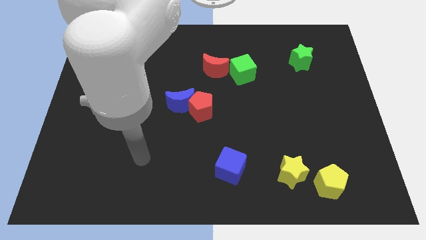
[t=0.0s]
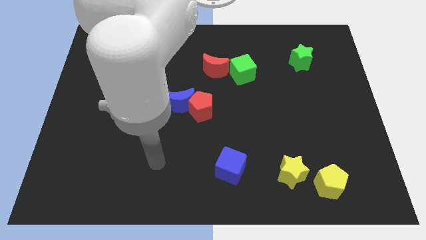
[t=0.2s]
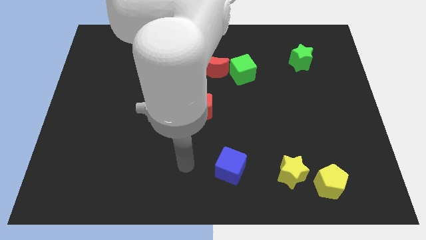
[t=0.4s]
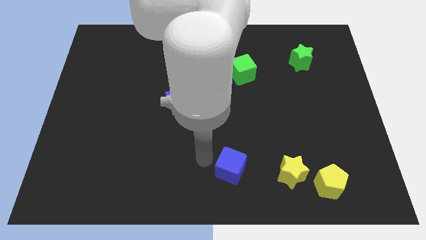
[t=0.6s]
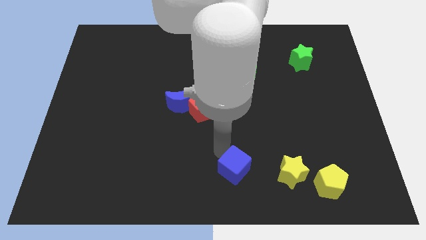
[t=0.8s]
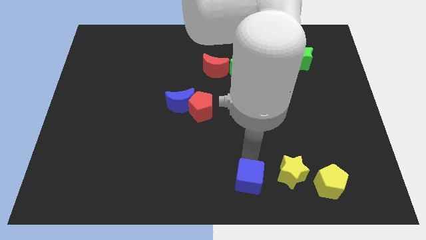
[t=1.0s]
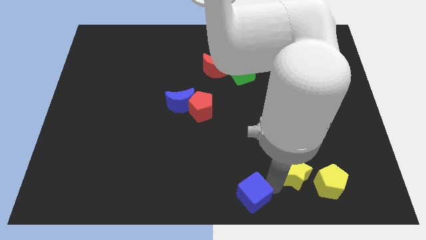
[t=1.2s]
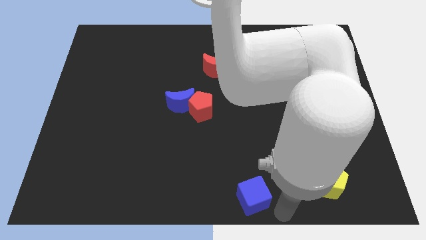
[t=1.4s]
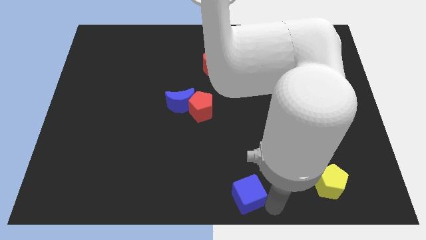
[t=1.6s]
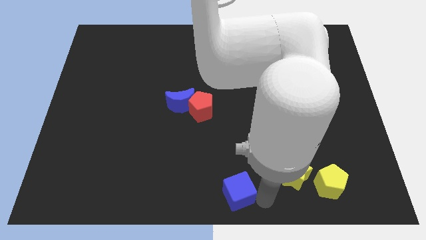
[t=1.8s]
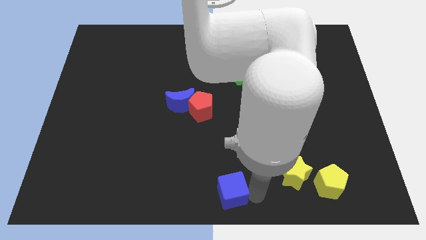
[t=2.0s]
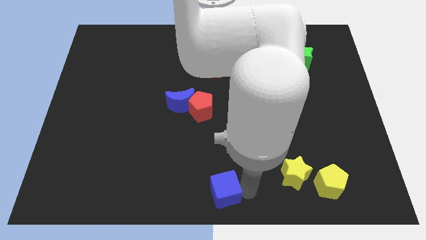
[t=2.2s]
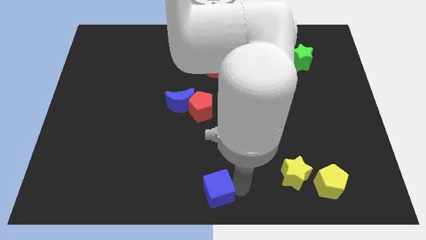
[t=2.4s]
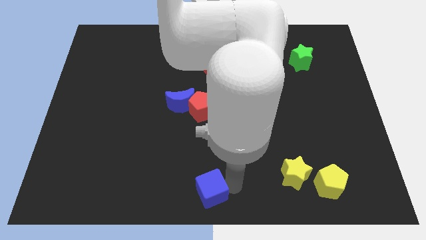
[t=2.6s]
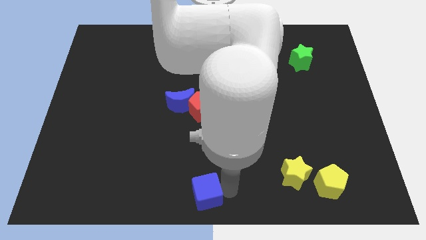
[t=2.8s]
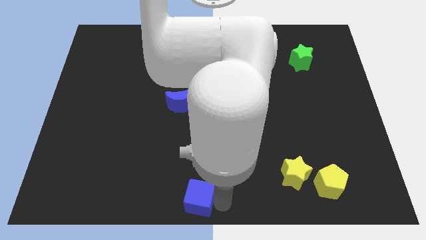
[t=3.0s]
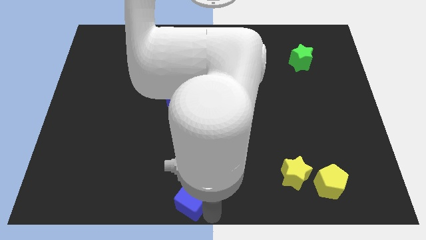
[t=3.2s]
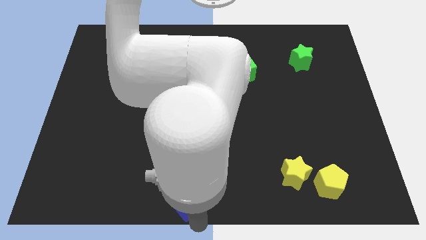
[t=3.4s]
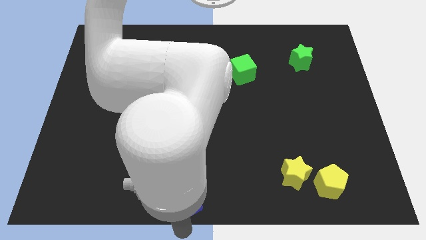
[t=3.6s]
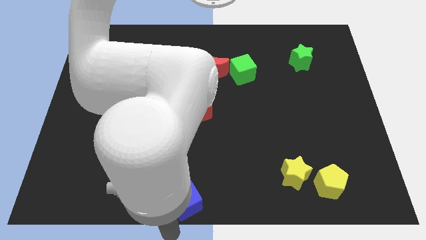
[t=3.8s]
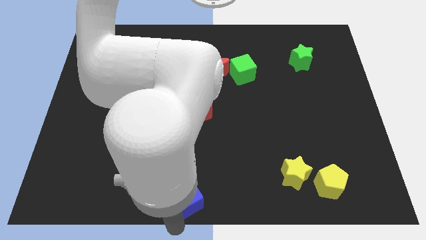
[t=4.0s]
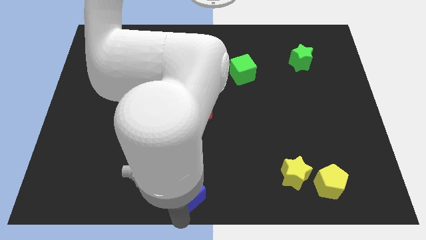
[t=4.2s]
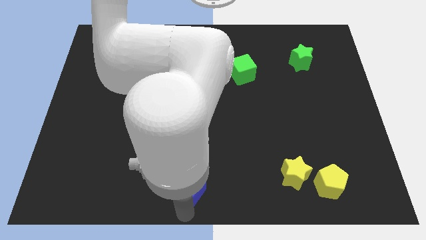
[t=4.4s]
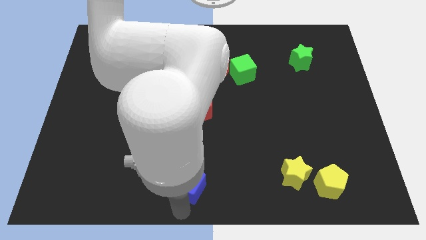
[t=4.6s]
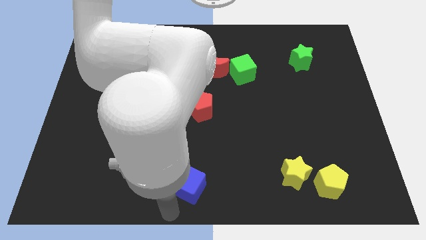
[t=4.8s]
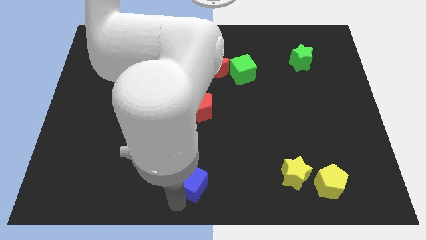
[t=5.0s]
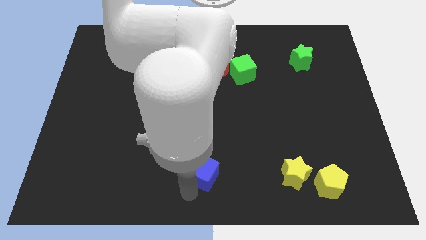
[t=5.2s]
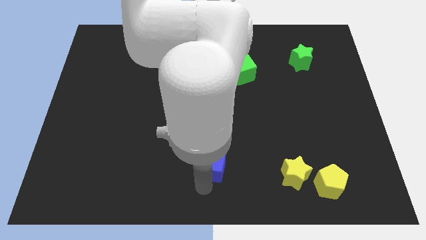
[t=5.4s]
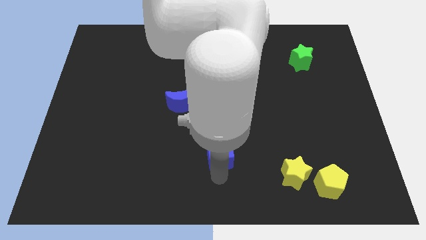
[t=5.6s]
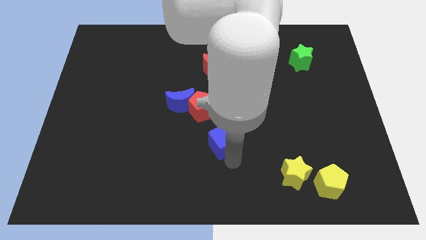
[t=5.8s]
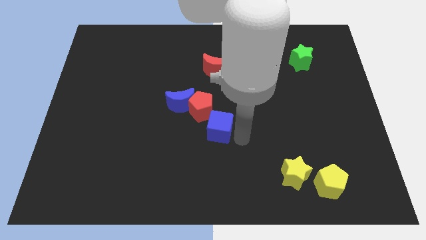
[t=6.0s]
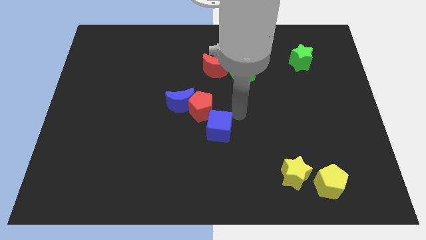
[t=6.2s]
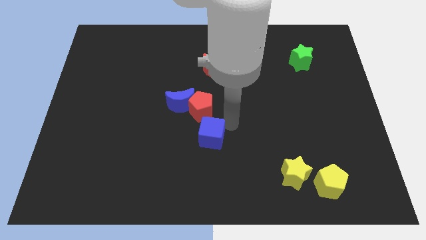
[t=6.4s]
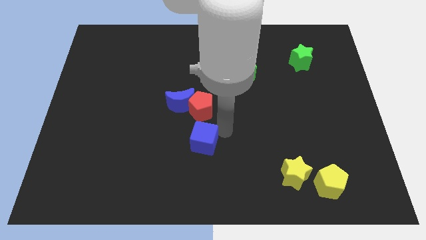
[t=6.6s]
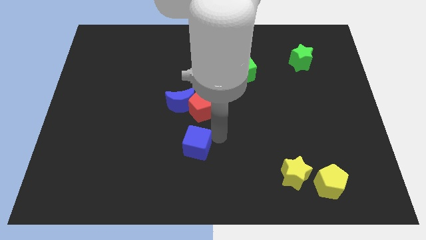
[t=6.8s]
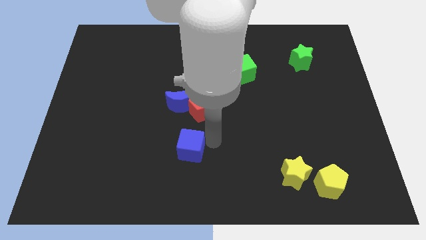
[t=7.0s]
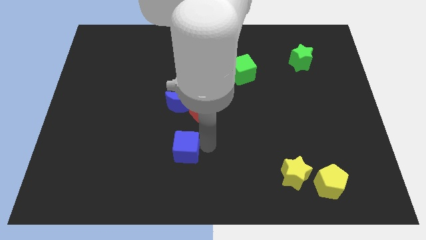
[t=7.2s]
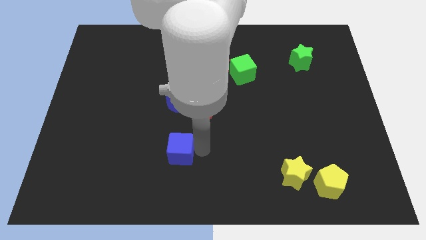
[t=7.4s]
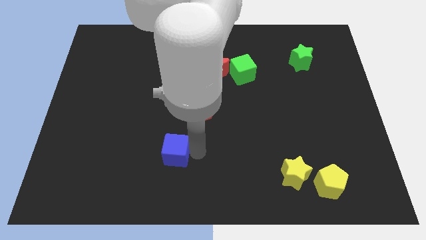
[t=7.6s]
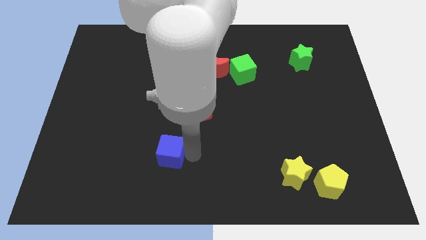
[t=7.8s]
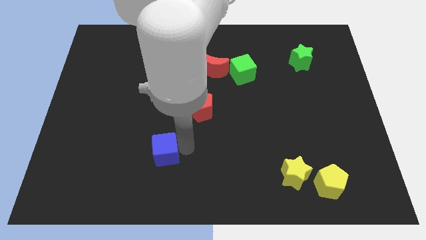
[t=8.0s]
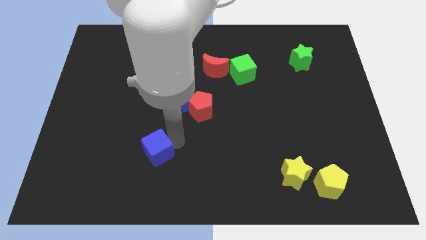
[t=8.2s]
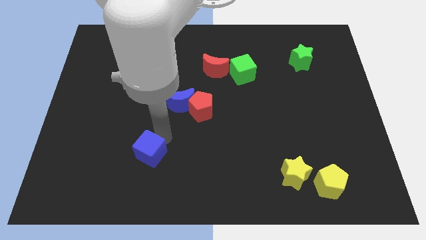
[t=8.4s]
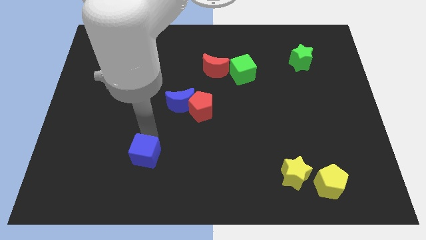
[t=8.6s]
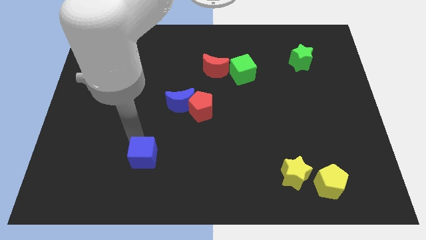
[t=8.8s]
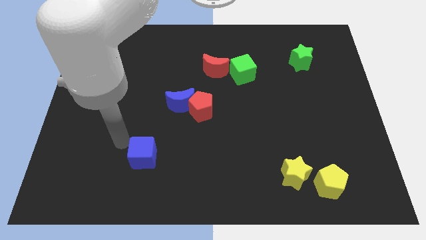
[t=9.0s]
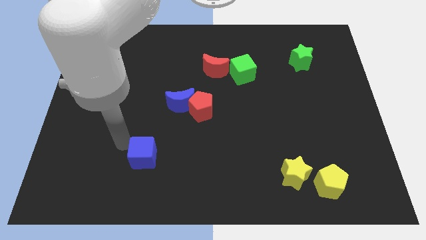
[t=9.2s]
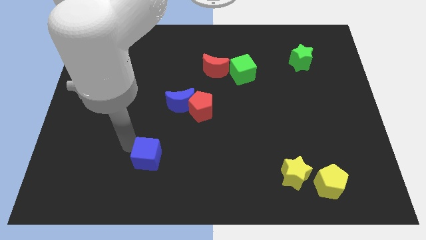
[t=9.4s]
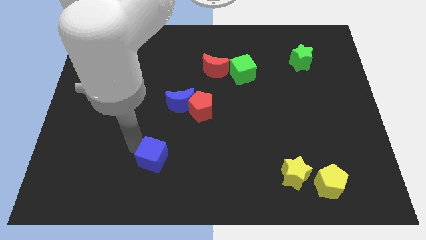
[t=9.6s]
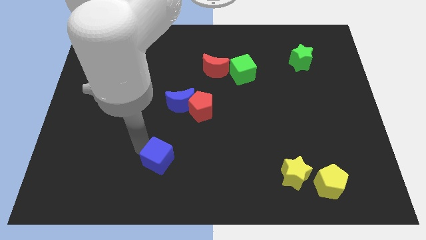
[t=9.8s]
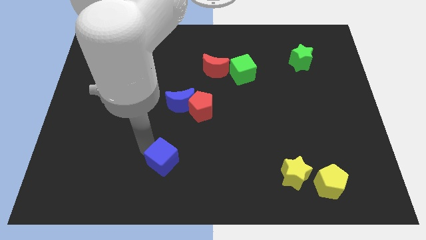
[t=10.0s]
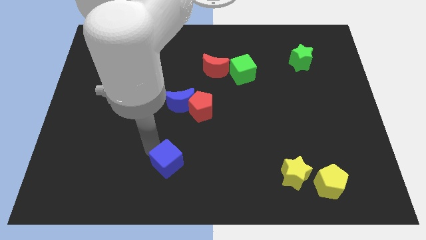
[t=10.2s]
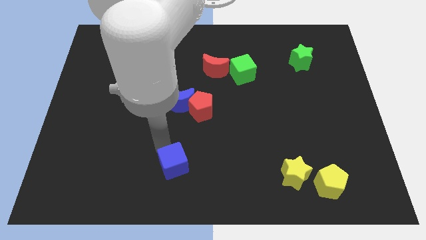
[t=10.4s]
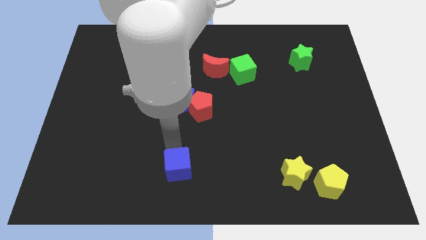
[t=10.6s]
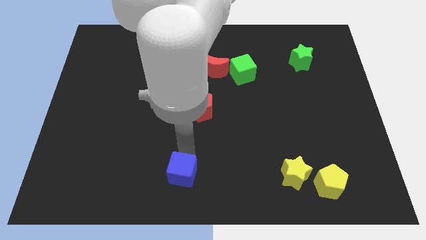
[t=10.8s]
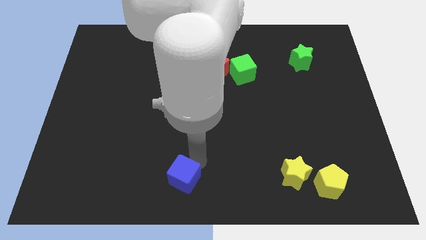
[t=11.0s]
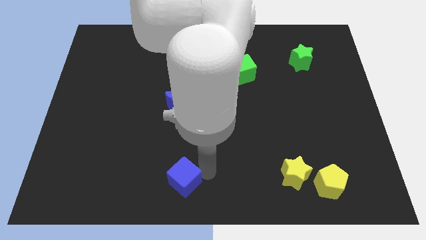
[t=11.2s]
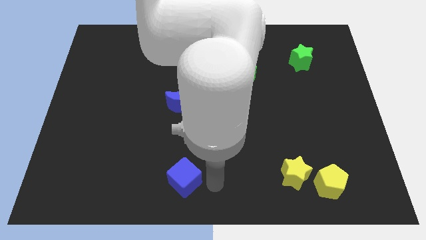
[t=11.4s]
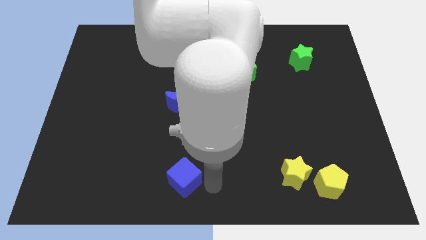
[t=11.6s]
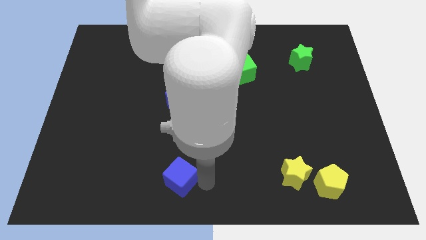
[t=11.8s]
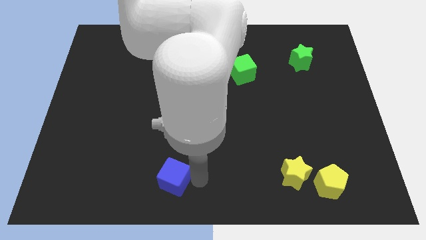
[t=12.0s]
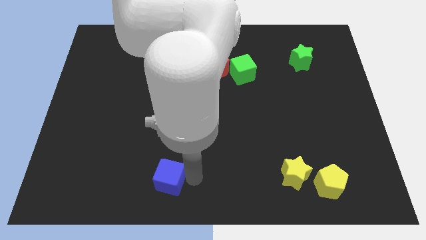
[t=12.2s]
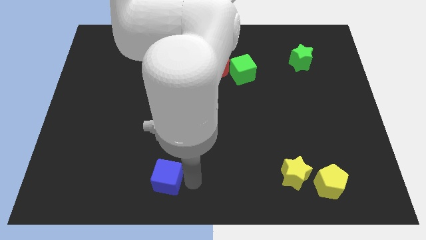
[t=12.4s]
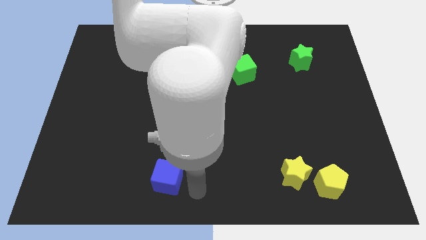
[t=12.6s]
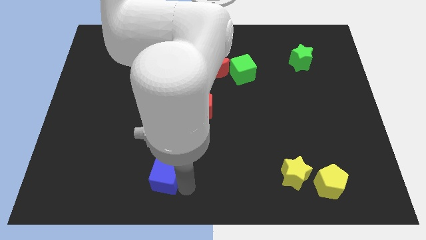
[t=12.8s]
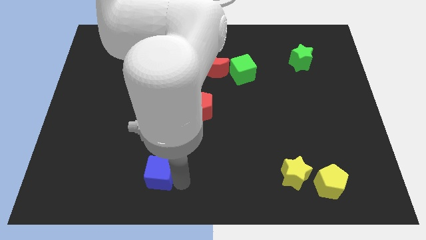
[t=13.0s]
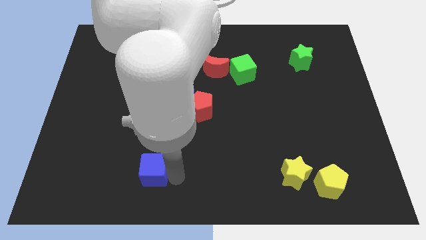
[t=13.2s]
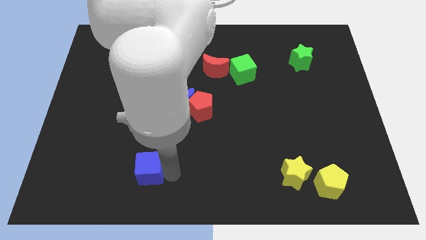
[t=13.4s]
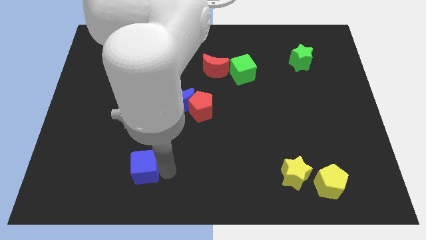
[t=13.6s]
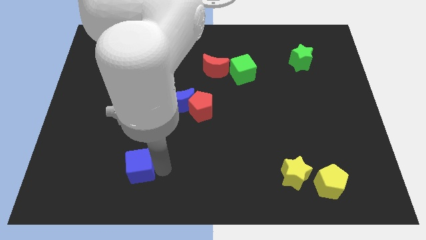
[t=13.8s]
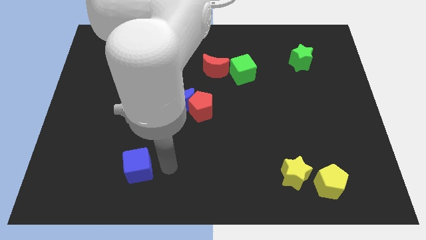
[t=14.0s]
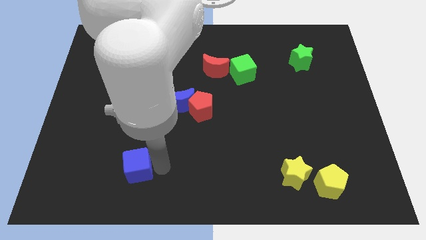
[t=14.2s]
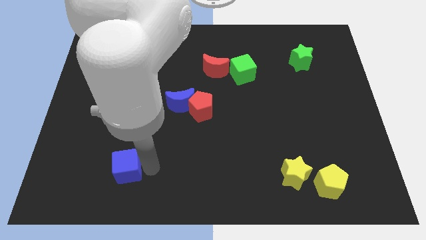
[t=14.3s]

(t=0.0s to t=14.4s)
move the blue cube to the left

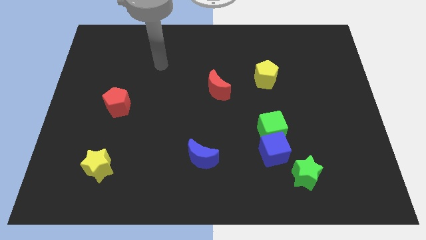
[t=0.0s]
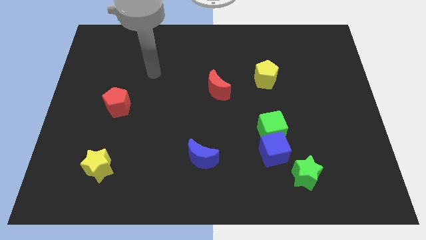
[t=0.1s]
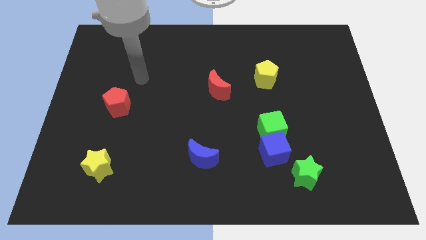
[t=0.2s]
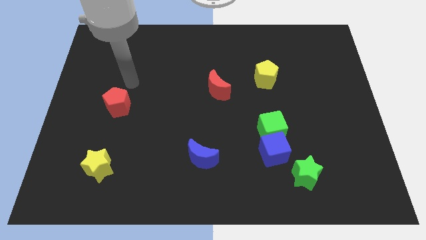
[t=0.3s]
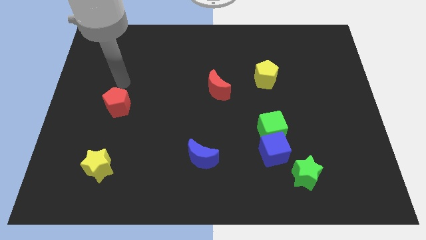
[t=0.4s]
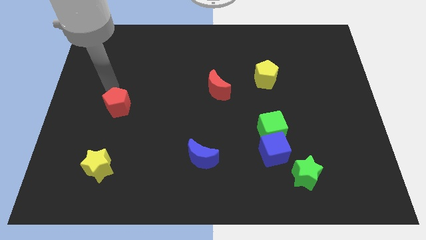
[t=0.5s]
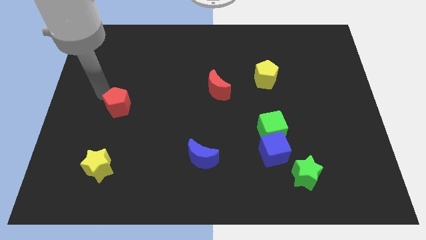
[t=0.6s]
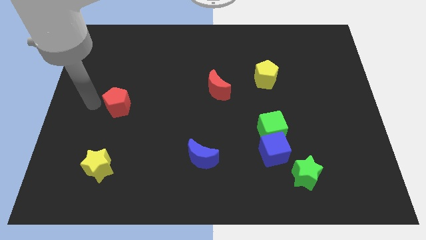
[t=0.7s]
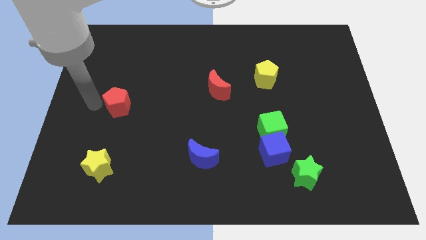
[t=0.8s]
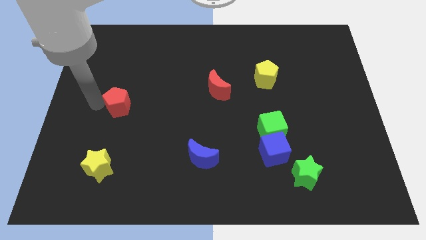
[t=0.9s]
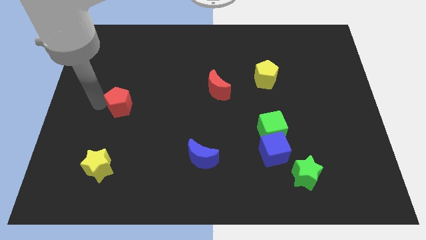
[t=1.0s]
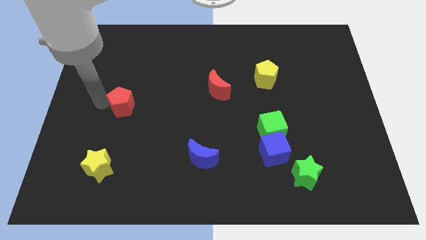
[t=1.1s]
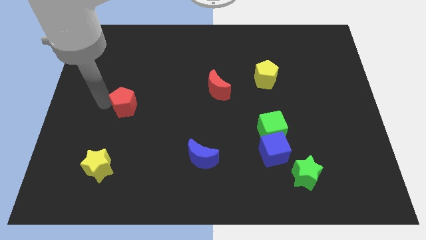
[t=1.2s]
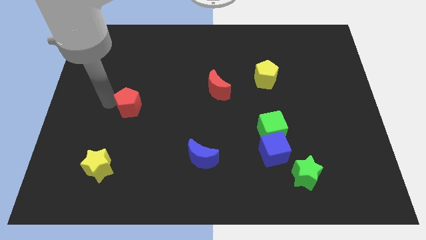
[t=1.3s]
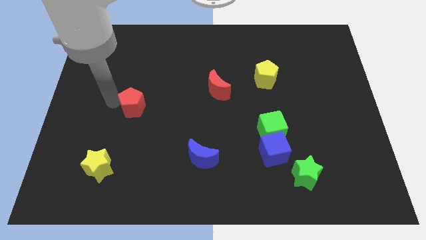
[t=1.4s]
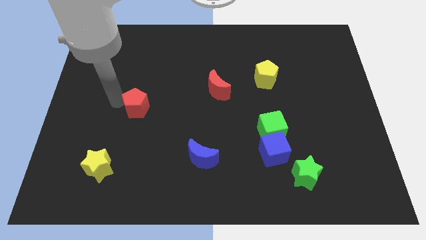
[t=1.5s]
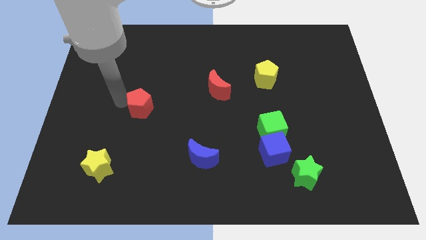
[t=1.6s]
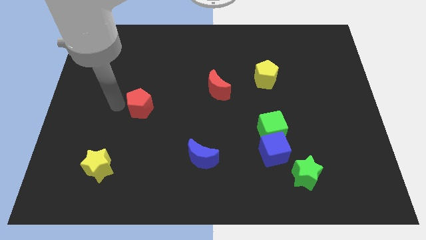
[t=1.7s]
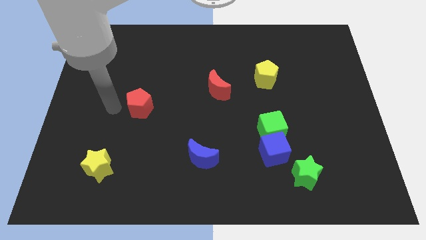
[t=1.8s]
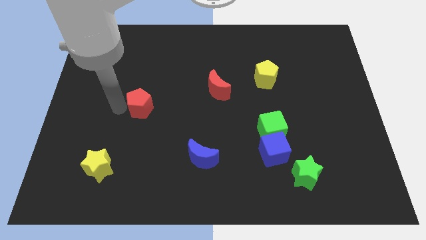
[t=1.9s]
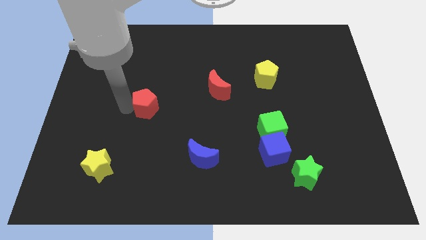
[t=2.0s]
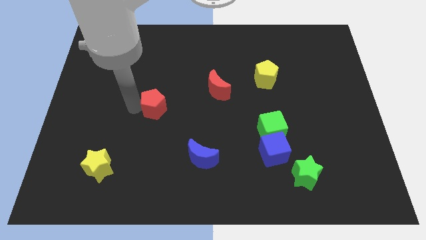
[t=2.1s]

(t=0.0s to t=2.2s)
slide the red pentagon a little right
